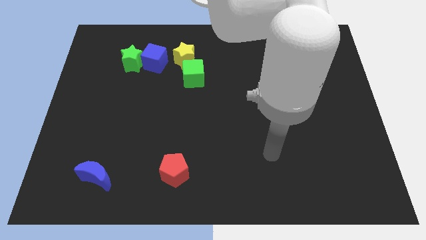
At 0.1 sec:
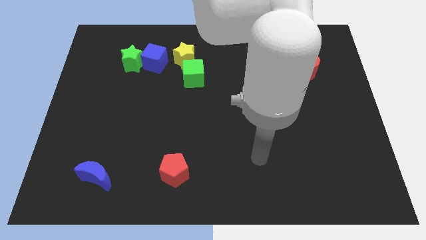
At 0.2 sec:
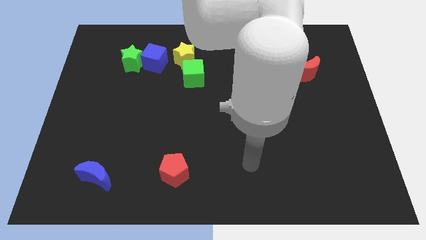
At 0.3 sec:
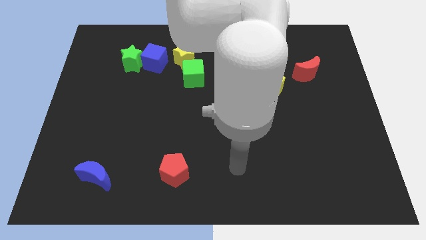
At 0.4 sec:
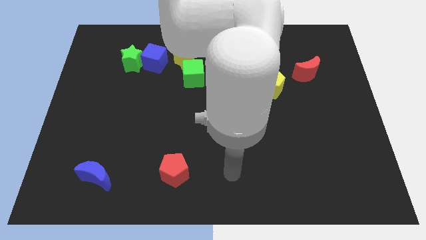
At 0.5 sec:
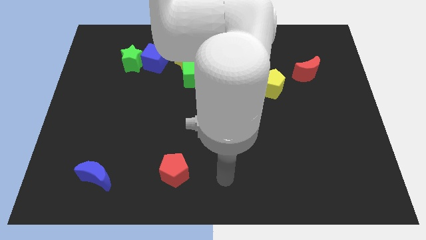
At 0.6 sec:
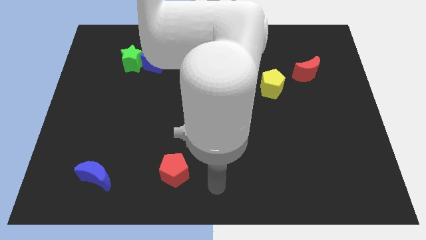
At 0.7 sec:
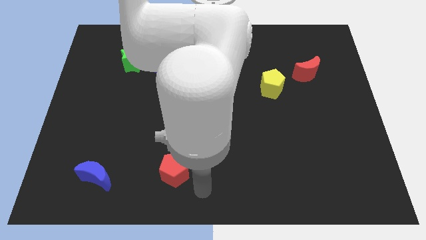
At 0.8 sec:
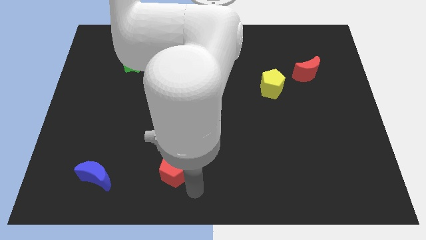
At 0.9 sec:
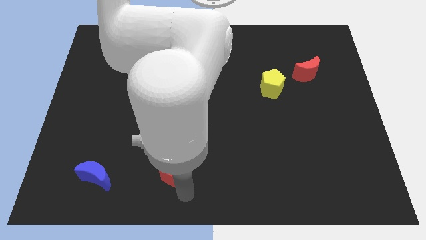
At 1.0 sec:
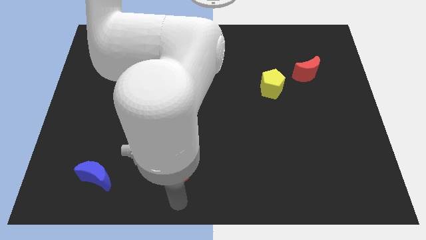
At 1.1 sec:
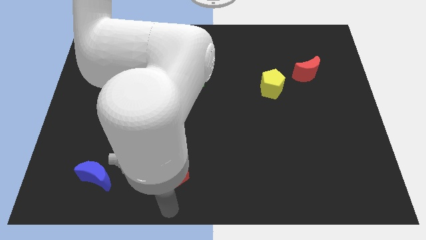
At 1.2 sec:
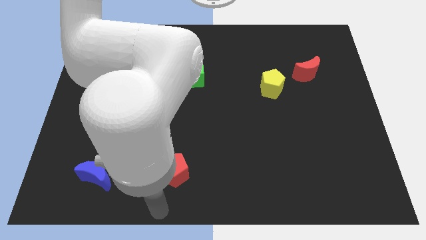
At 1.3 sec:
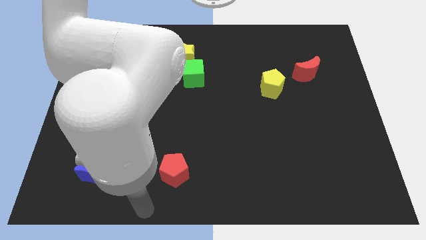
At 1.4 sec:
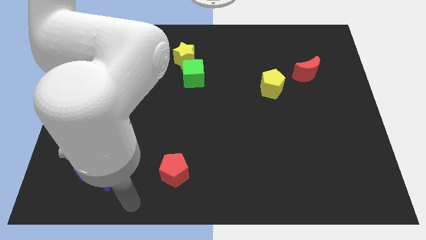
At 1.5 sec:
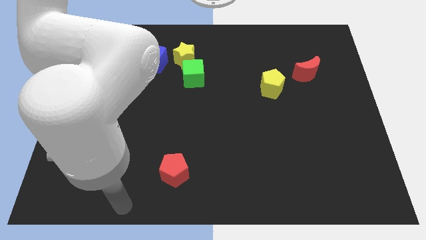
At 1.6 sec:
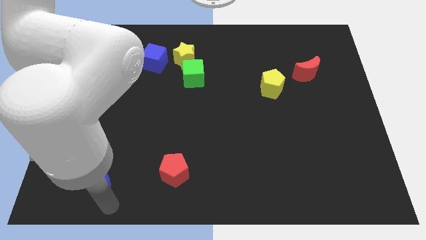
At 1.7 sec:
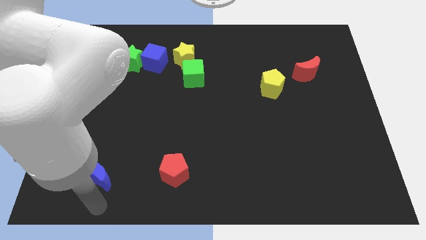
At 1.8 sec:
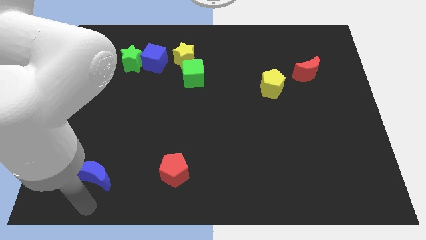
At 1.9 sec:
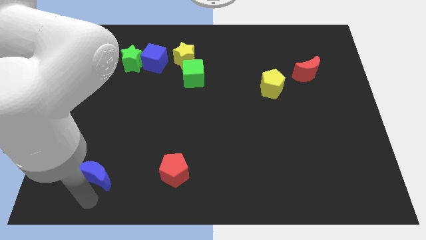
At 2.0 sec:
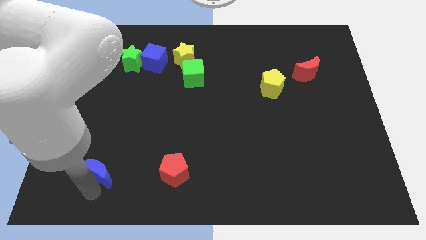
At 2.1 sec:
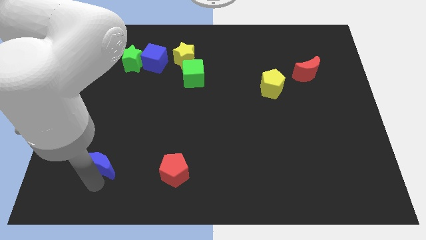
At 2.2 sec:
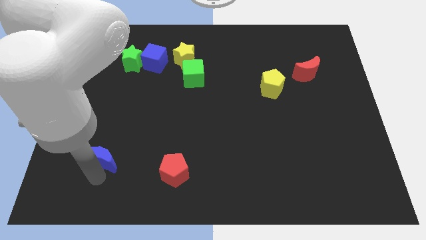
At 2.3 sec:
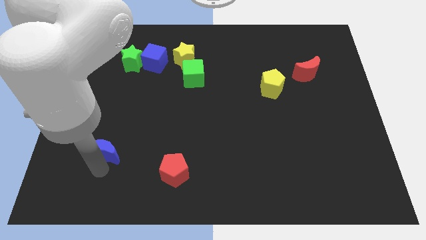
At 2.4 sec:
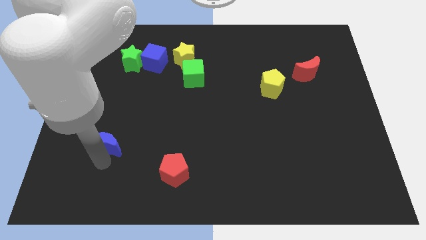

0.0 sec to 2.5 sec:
slightly push the blue moon up

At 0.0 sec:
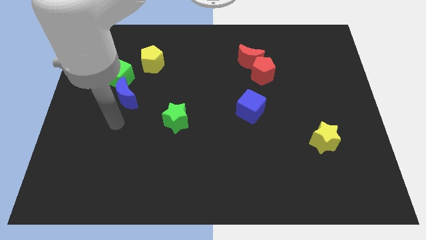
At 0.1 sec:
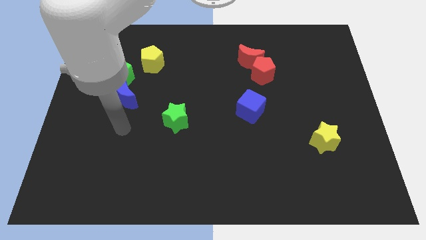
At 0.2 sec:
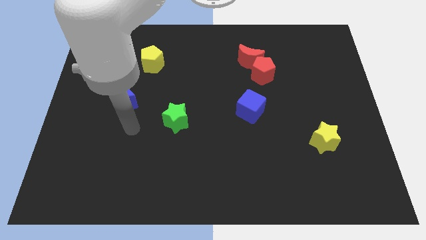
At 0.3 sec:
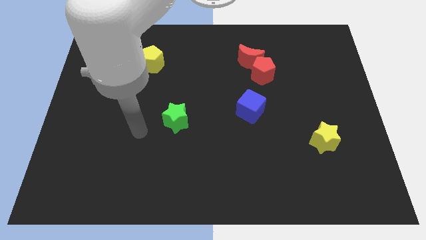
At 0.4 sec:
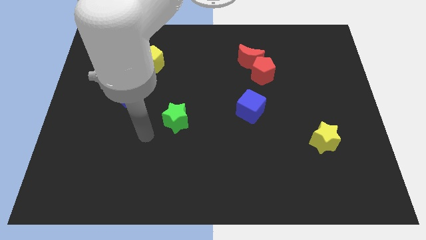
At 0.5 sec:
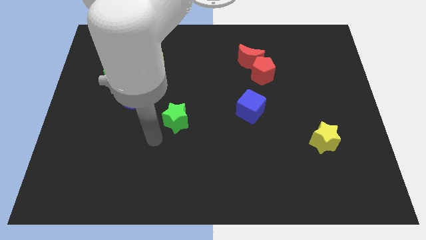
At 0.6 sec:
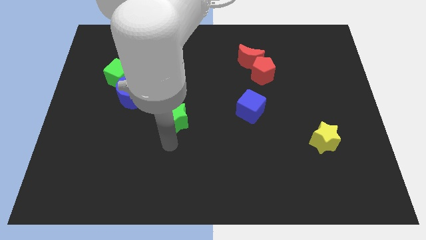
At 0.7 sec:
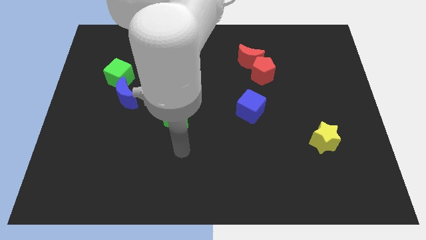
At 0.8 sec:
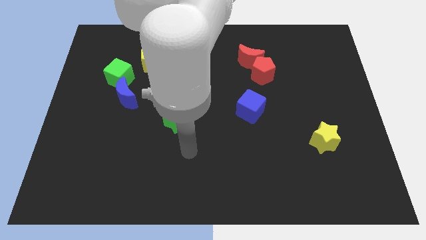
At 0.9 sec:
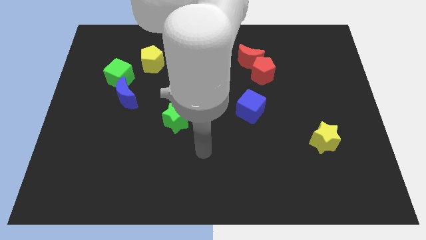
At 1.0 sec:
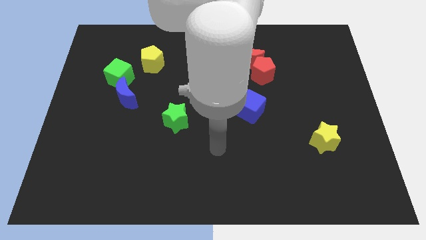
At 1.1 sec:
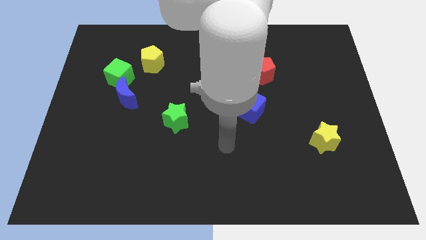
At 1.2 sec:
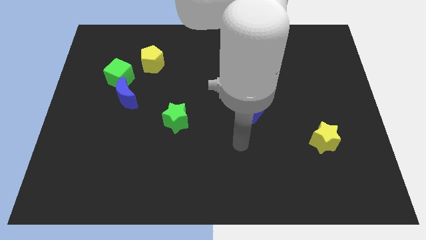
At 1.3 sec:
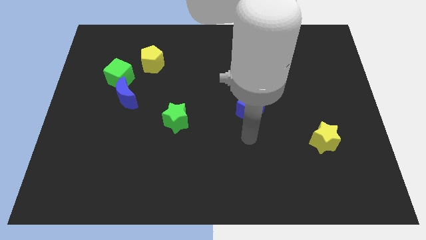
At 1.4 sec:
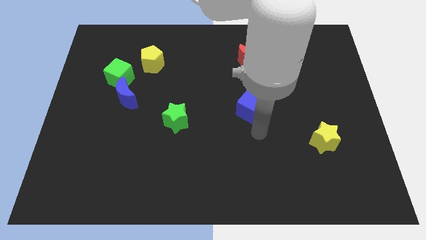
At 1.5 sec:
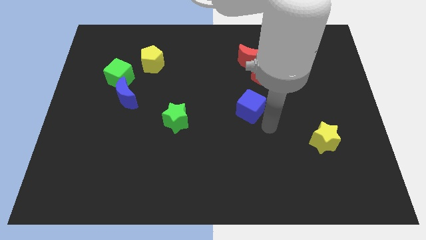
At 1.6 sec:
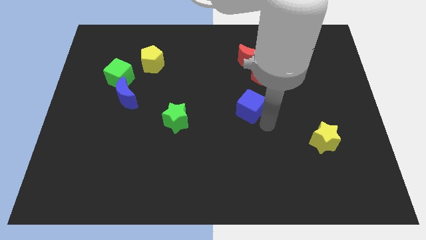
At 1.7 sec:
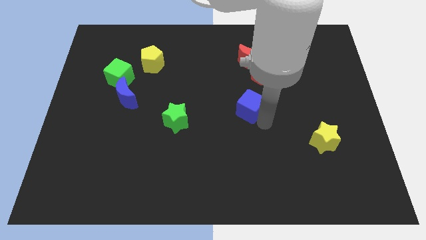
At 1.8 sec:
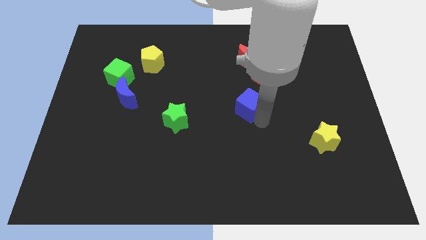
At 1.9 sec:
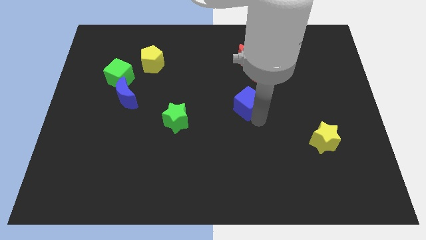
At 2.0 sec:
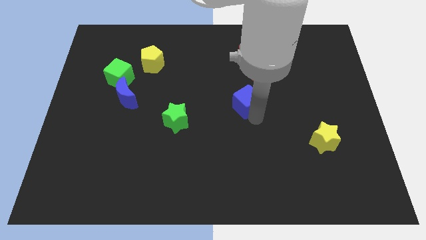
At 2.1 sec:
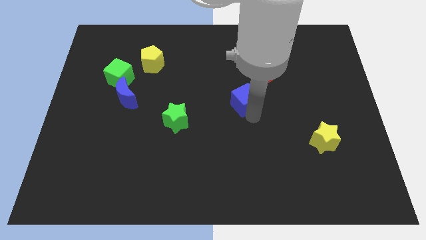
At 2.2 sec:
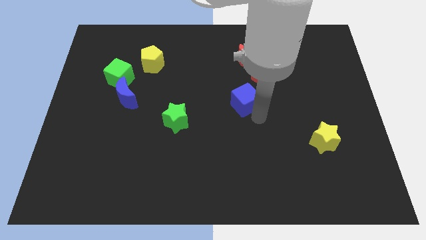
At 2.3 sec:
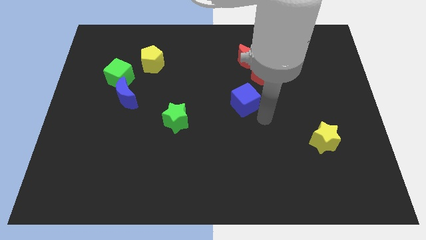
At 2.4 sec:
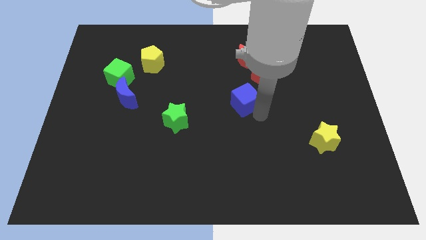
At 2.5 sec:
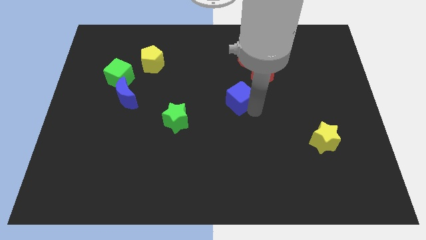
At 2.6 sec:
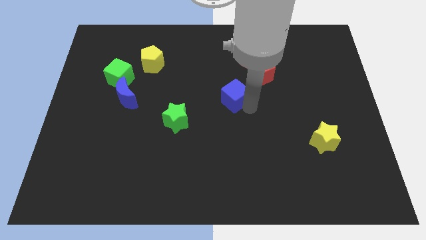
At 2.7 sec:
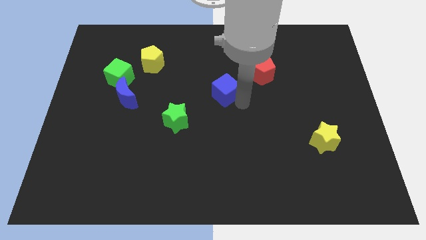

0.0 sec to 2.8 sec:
slightly move the blue cube diagonally up and to the left

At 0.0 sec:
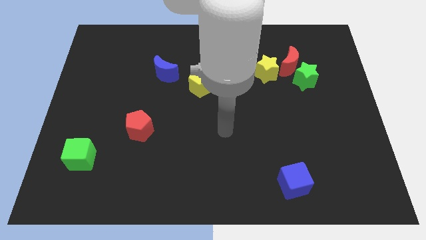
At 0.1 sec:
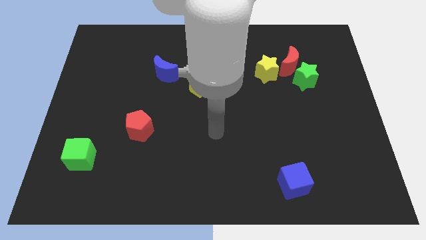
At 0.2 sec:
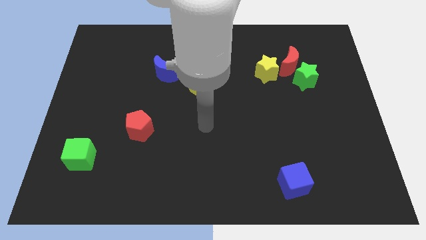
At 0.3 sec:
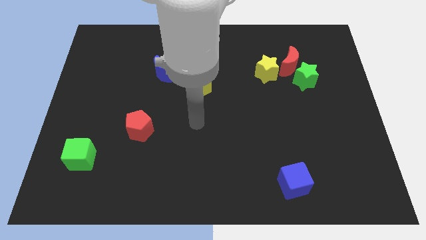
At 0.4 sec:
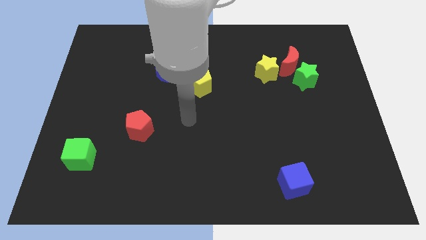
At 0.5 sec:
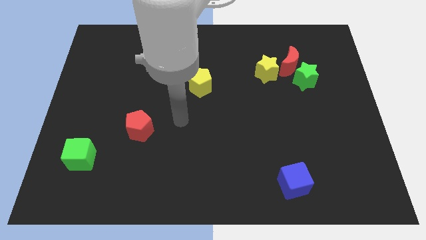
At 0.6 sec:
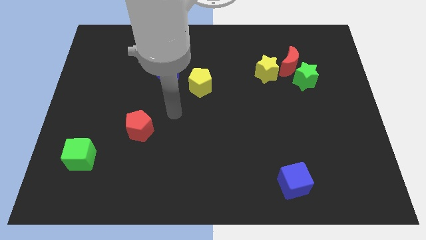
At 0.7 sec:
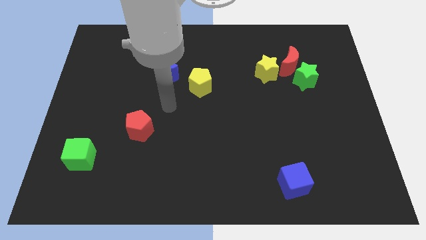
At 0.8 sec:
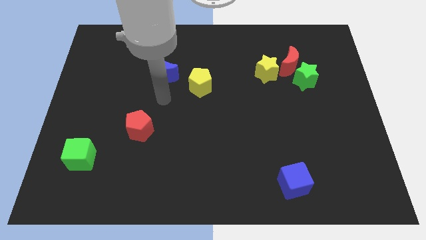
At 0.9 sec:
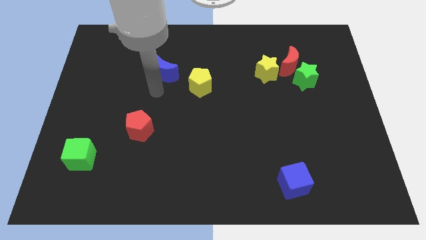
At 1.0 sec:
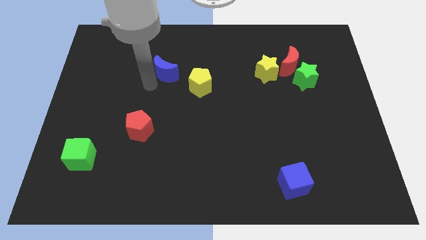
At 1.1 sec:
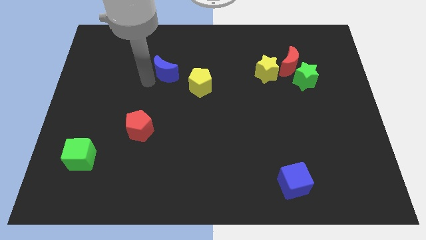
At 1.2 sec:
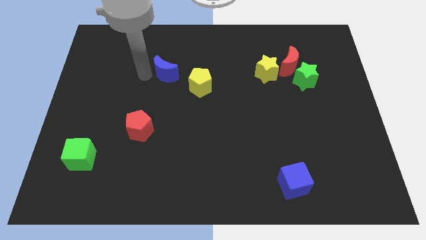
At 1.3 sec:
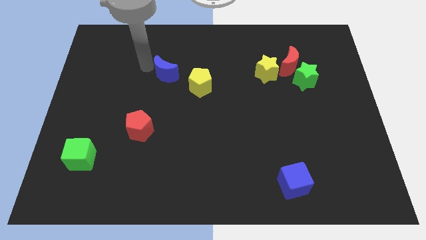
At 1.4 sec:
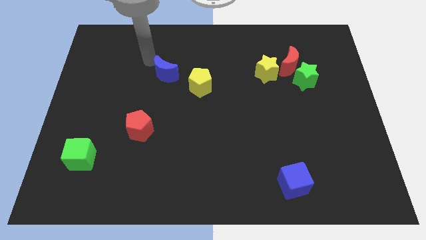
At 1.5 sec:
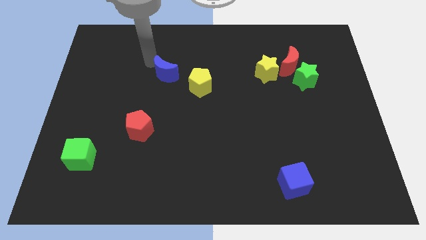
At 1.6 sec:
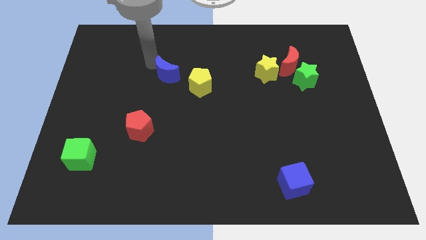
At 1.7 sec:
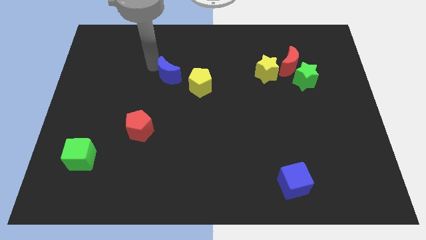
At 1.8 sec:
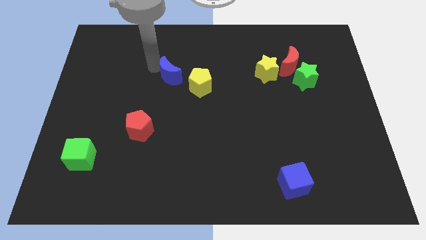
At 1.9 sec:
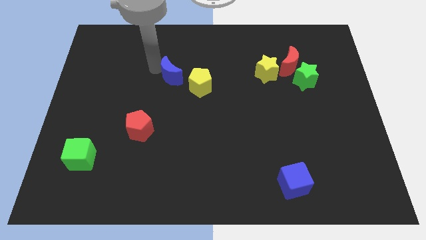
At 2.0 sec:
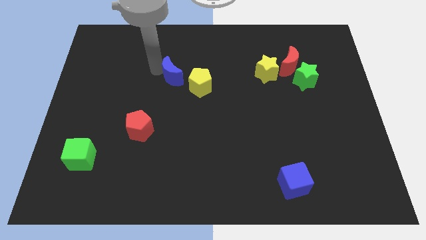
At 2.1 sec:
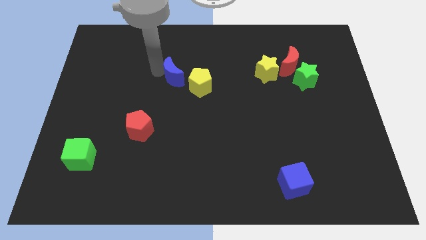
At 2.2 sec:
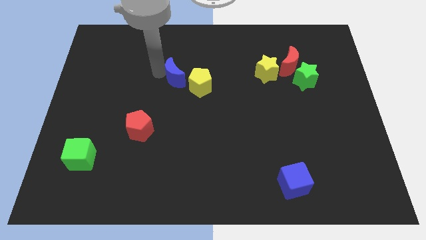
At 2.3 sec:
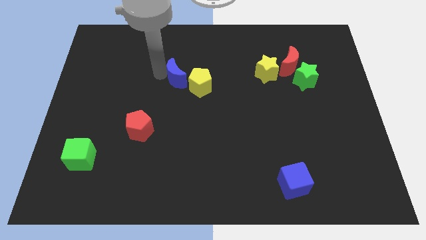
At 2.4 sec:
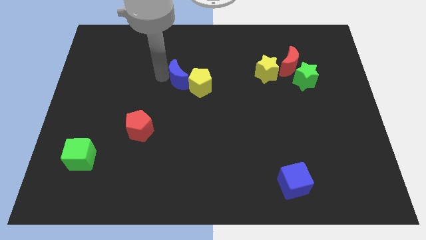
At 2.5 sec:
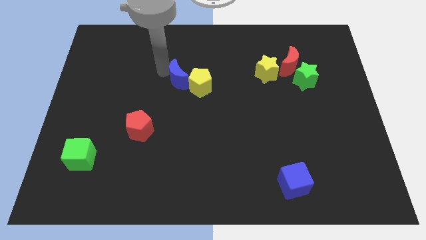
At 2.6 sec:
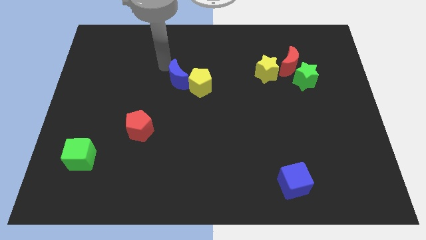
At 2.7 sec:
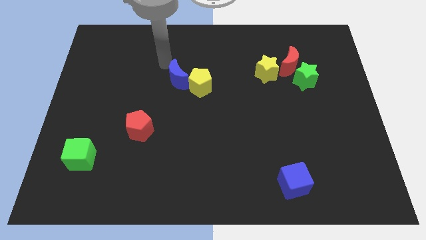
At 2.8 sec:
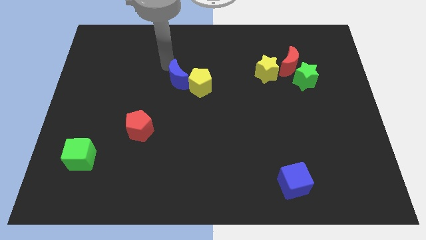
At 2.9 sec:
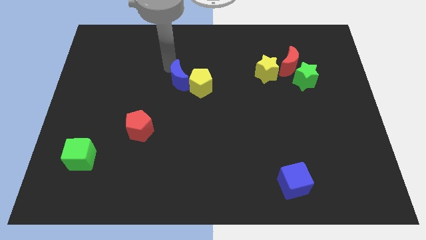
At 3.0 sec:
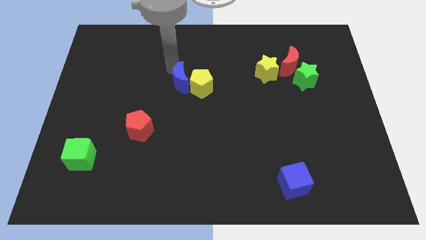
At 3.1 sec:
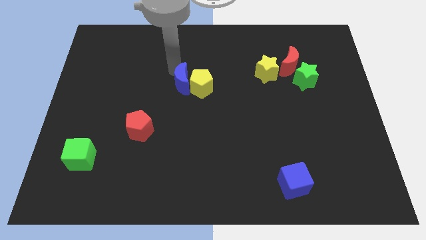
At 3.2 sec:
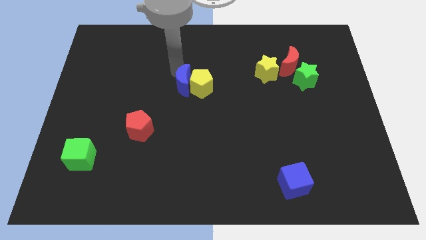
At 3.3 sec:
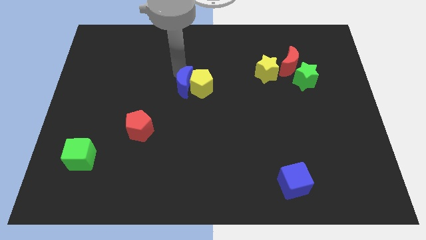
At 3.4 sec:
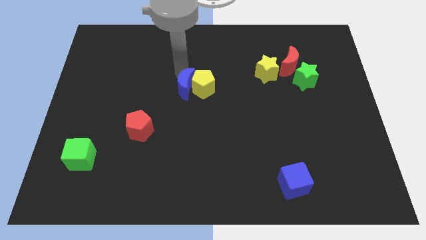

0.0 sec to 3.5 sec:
move the blue moon slightly diagonally downwards and right
